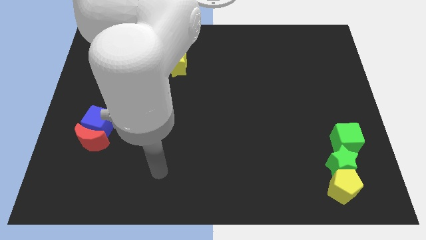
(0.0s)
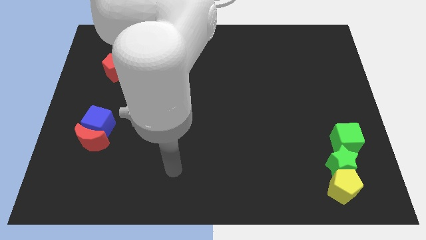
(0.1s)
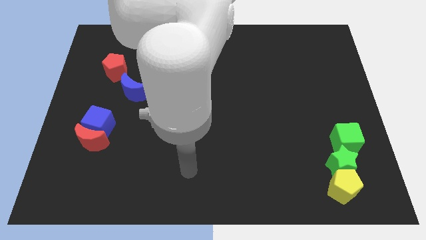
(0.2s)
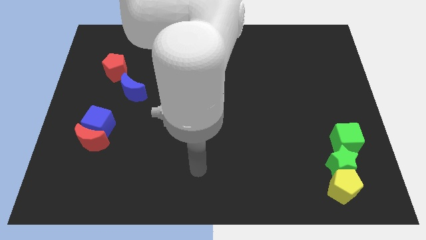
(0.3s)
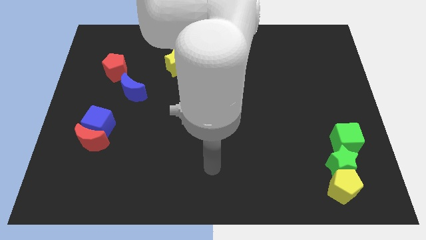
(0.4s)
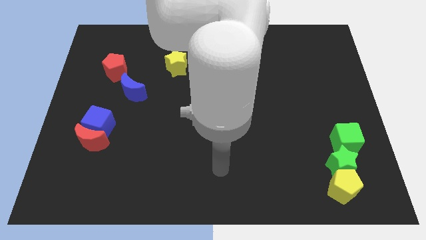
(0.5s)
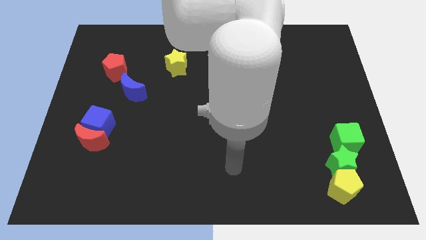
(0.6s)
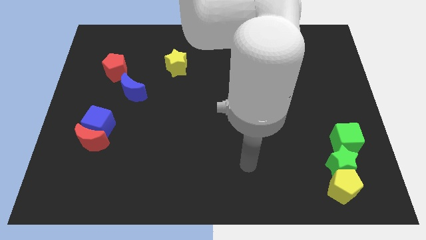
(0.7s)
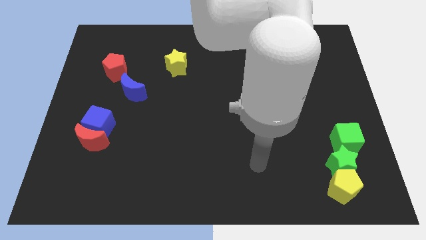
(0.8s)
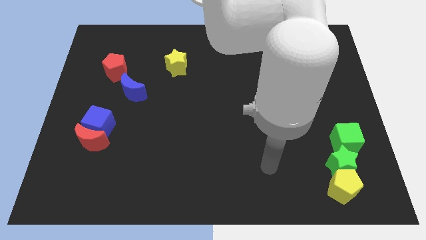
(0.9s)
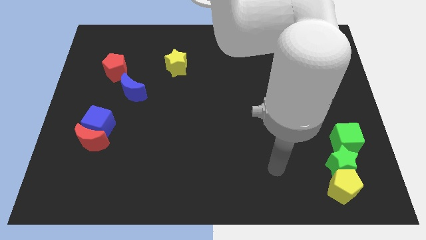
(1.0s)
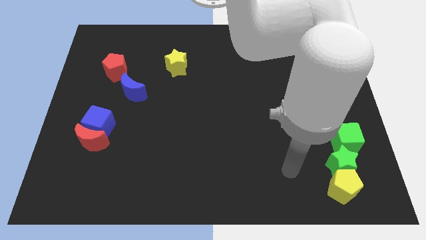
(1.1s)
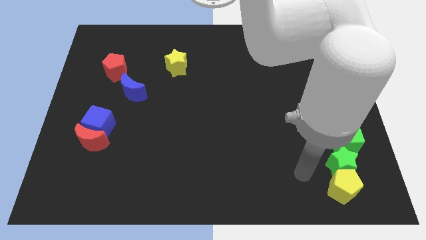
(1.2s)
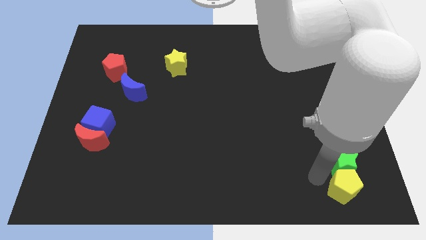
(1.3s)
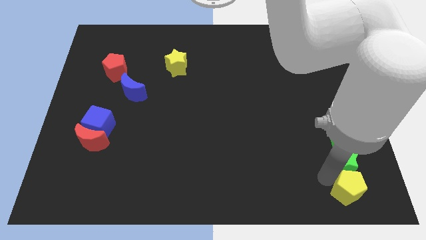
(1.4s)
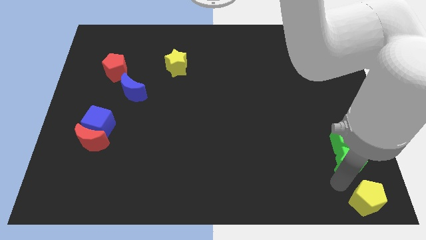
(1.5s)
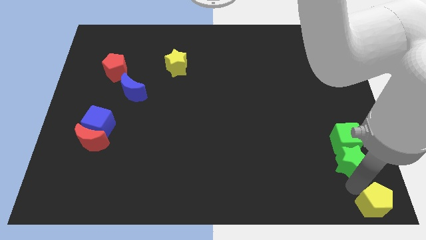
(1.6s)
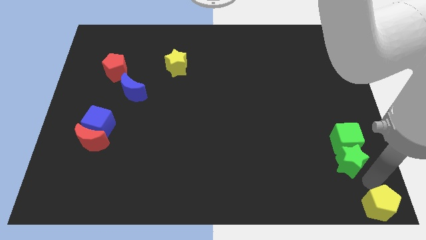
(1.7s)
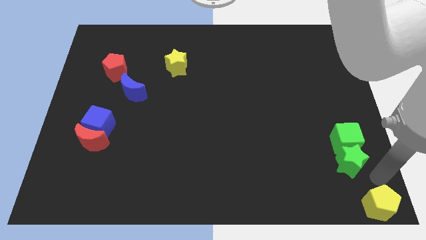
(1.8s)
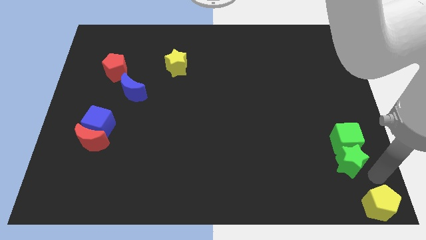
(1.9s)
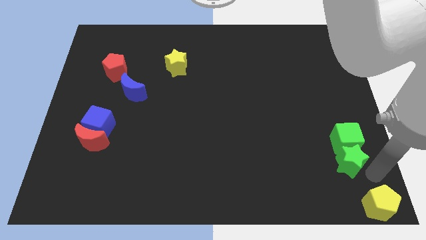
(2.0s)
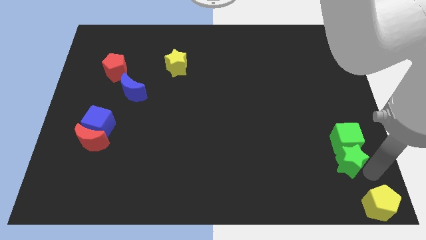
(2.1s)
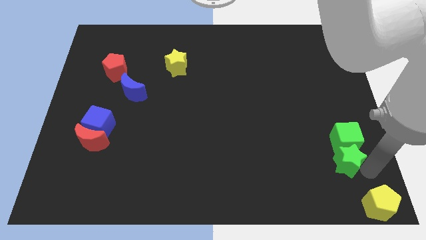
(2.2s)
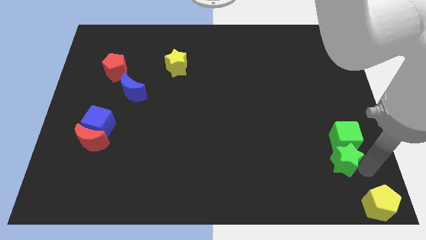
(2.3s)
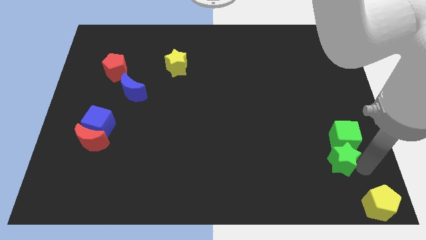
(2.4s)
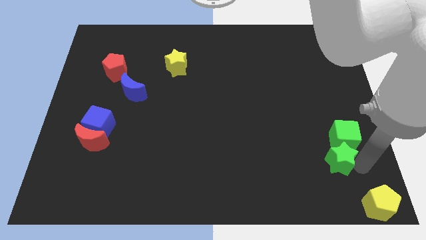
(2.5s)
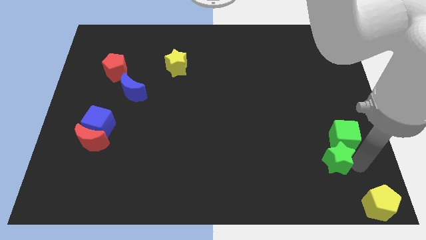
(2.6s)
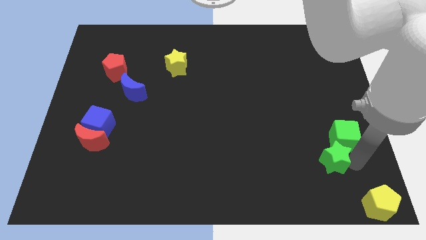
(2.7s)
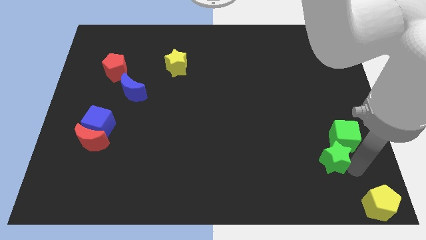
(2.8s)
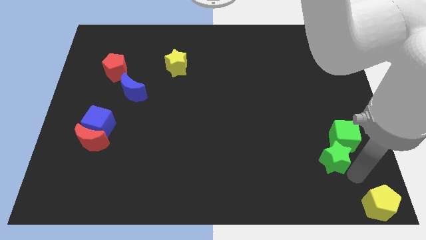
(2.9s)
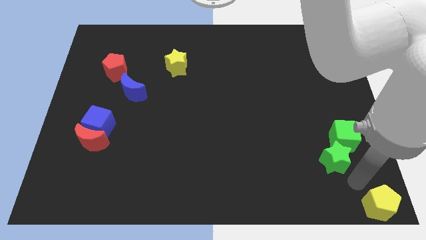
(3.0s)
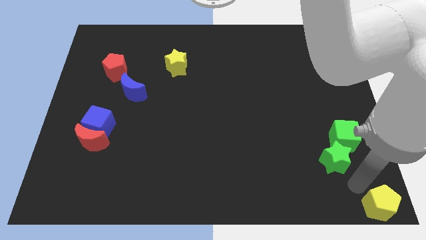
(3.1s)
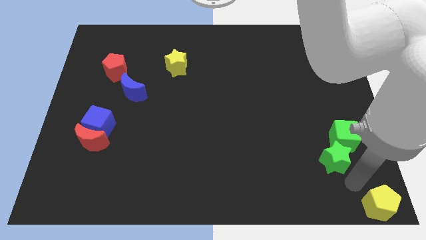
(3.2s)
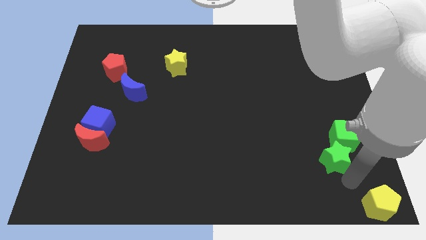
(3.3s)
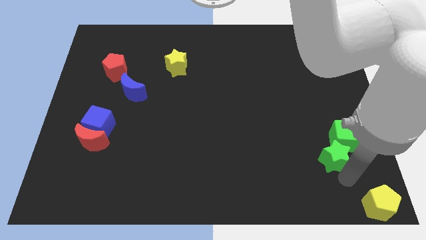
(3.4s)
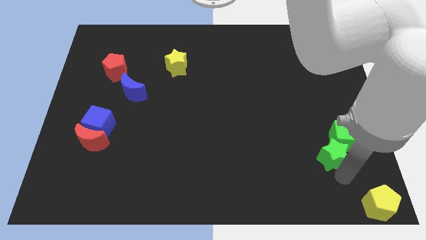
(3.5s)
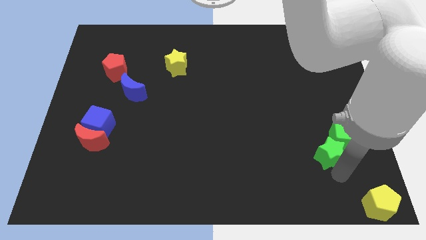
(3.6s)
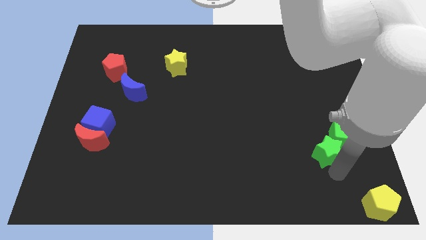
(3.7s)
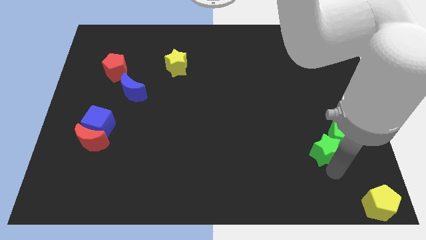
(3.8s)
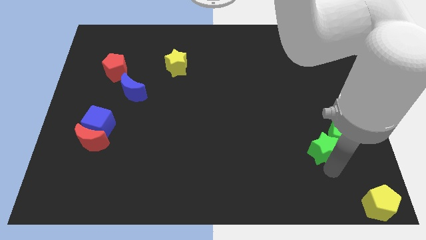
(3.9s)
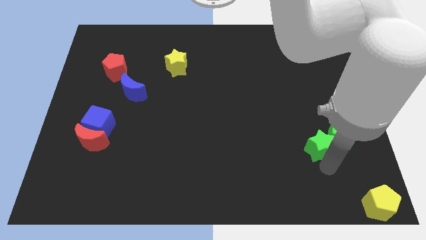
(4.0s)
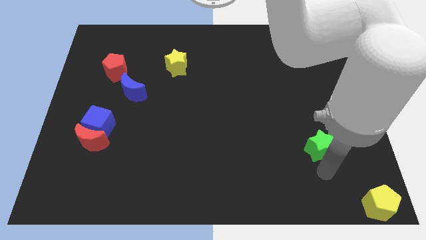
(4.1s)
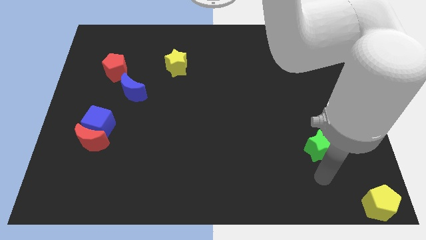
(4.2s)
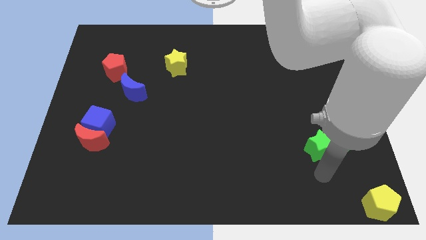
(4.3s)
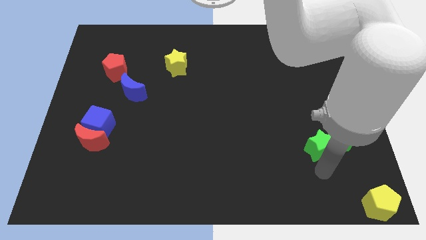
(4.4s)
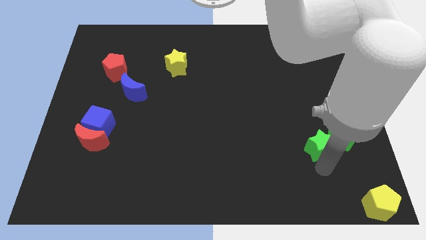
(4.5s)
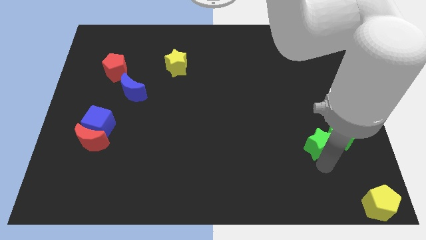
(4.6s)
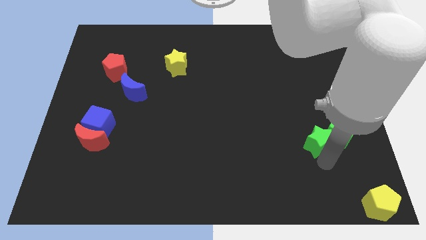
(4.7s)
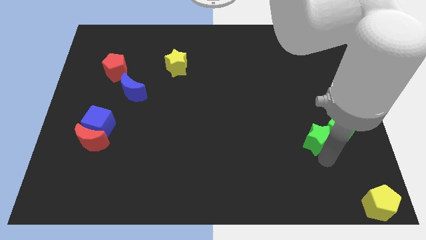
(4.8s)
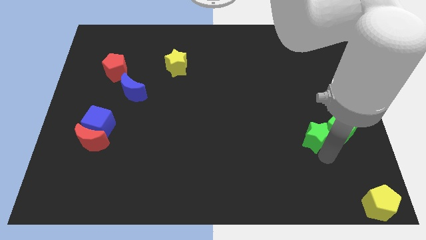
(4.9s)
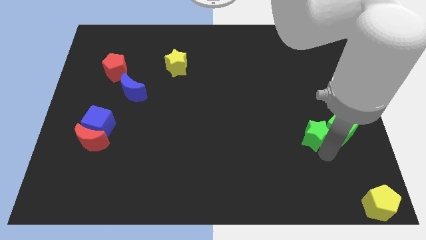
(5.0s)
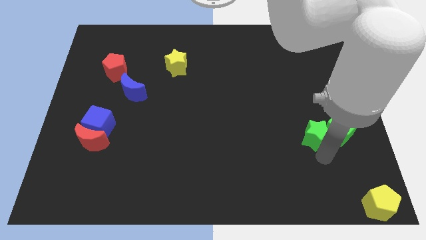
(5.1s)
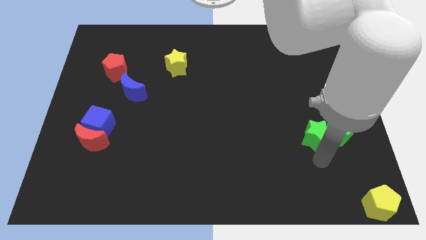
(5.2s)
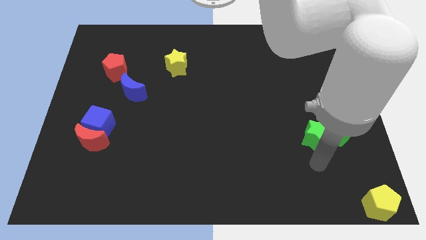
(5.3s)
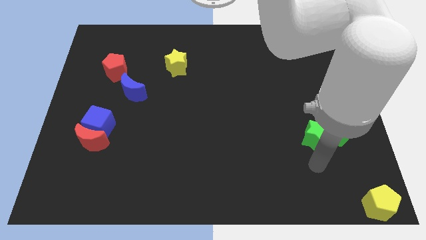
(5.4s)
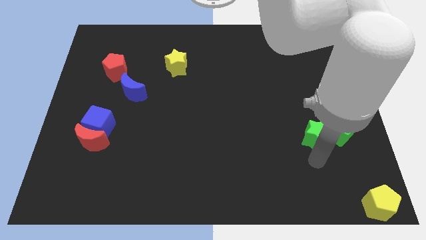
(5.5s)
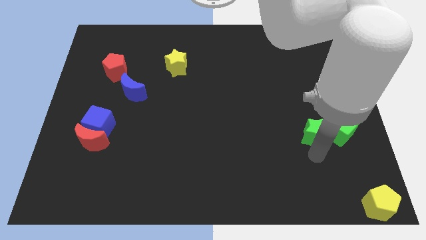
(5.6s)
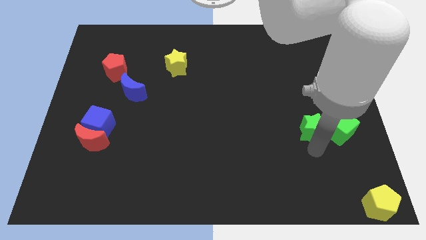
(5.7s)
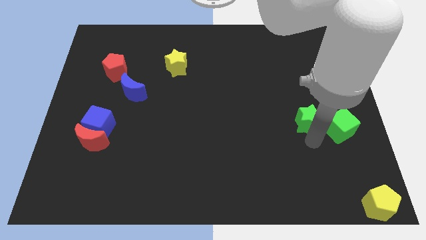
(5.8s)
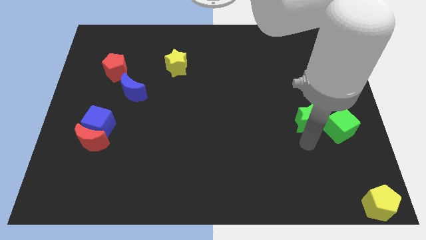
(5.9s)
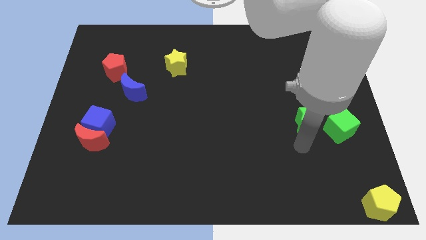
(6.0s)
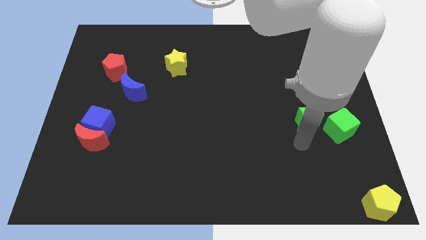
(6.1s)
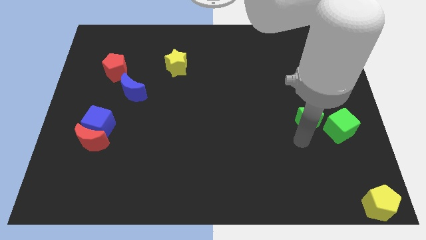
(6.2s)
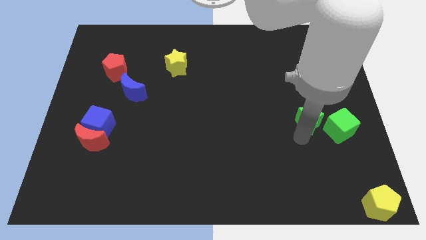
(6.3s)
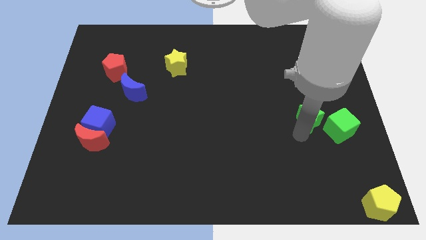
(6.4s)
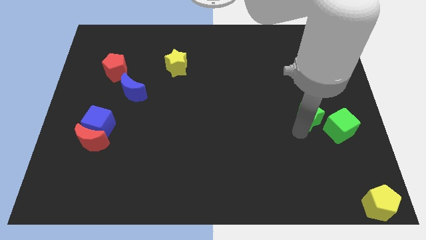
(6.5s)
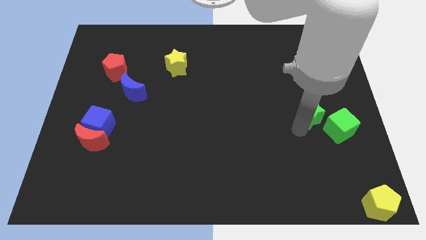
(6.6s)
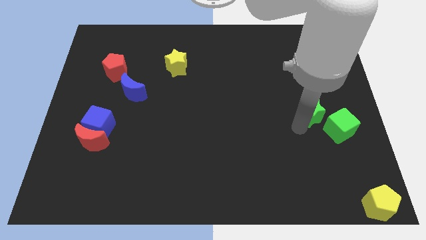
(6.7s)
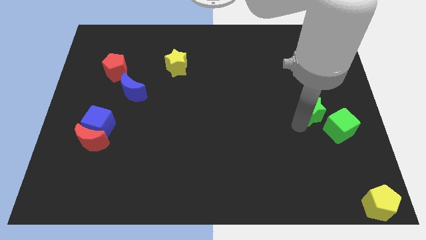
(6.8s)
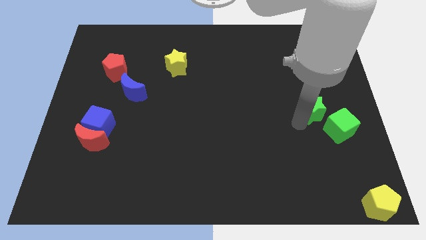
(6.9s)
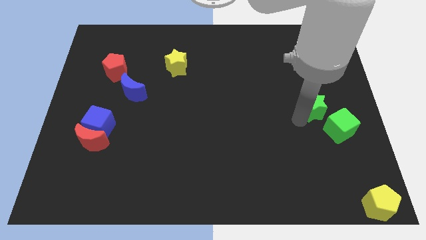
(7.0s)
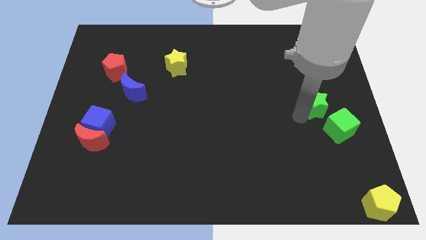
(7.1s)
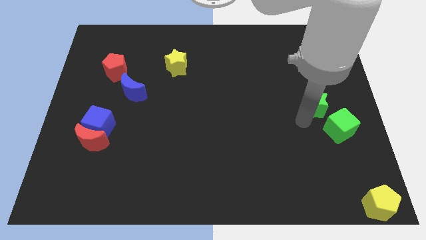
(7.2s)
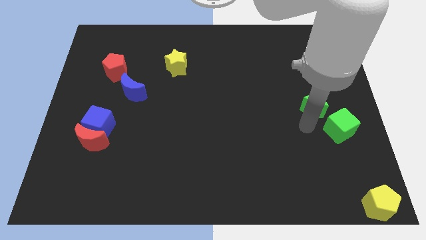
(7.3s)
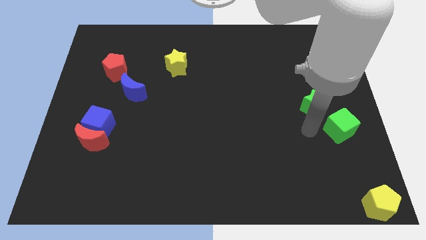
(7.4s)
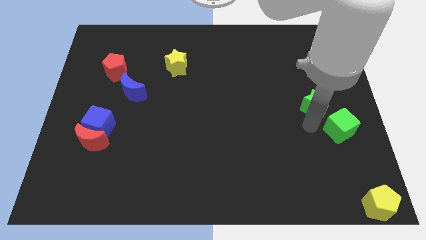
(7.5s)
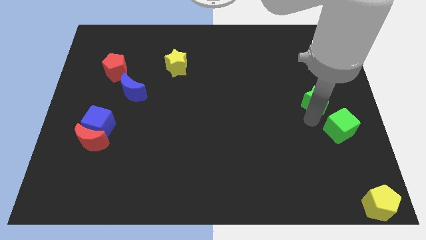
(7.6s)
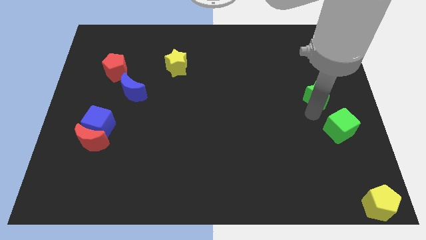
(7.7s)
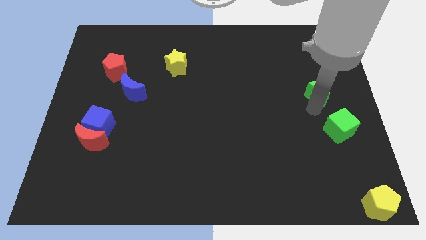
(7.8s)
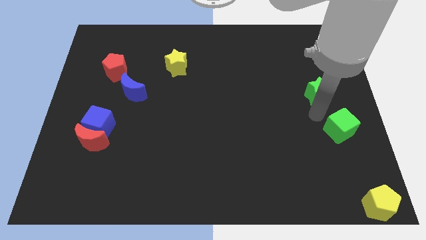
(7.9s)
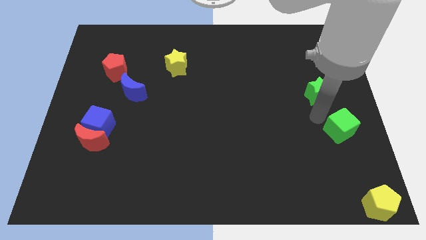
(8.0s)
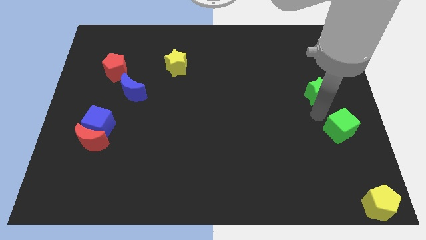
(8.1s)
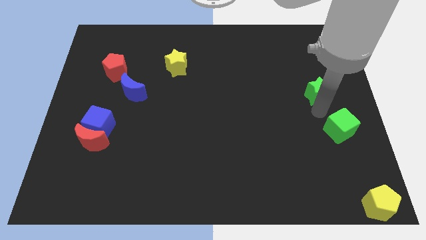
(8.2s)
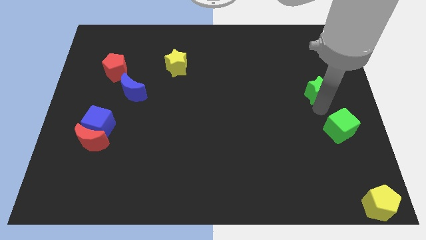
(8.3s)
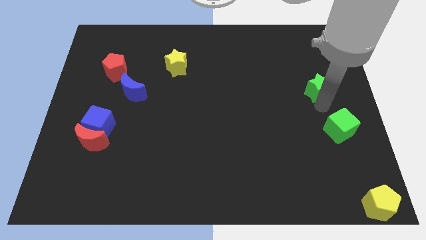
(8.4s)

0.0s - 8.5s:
push the green star upwards
